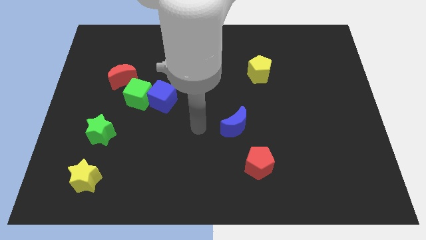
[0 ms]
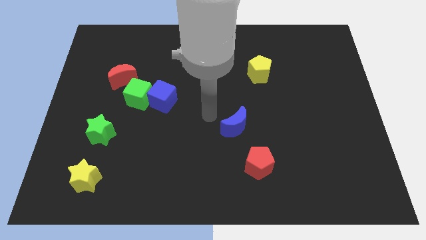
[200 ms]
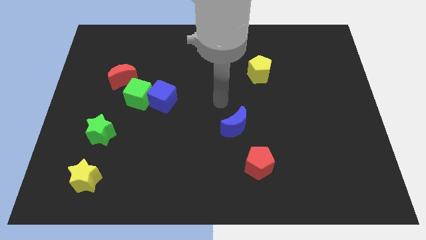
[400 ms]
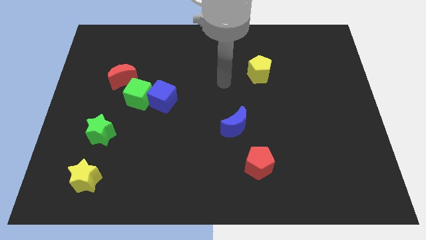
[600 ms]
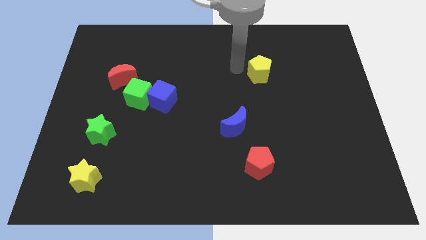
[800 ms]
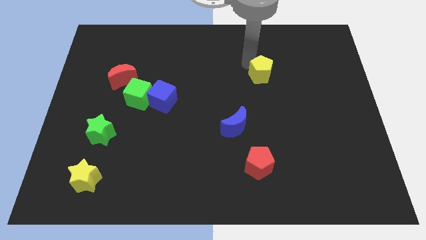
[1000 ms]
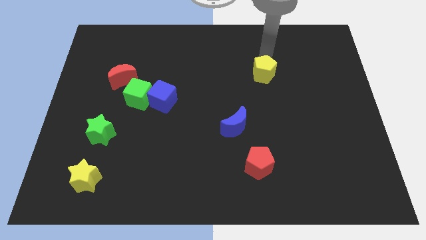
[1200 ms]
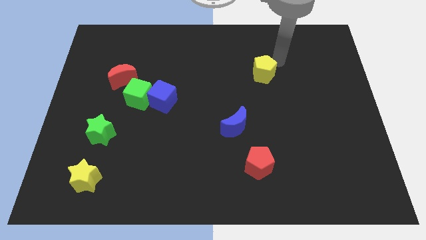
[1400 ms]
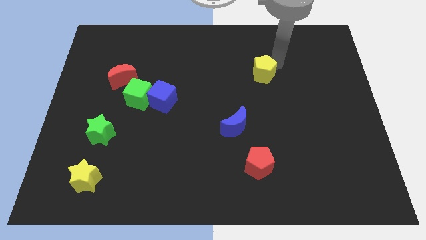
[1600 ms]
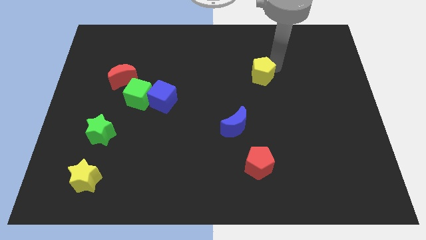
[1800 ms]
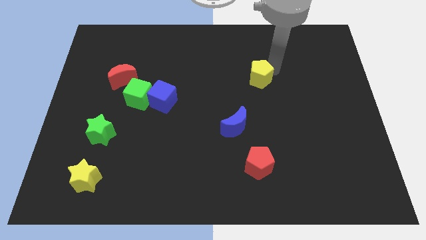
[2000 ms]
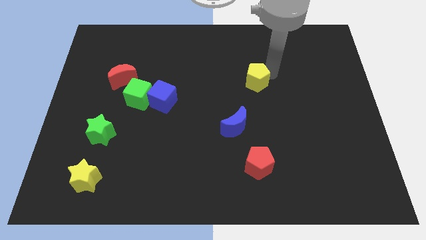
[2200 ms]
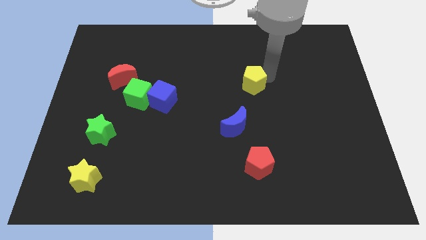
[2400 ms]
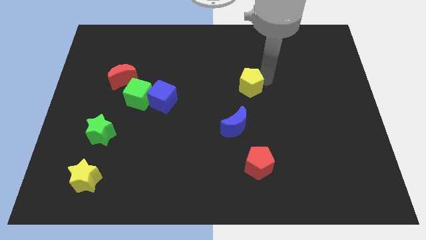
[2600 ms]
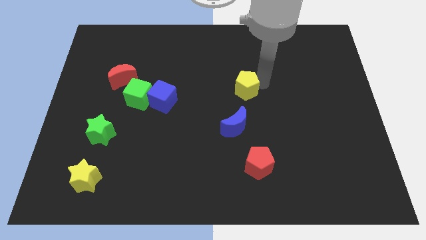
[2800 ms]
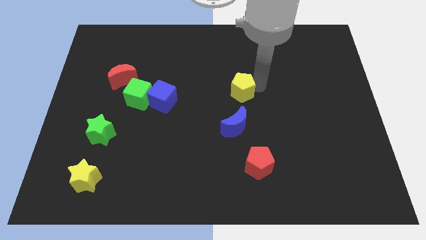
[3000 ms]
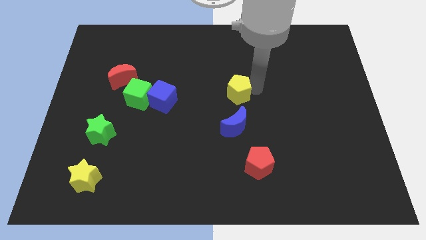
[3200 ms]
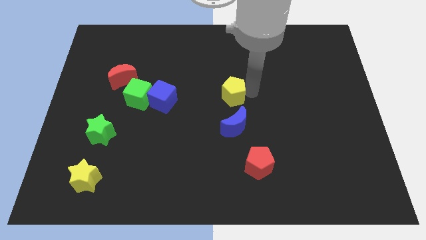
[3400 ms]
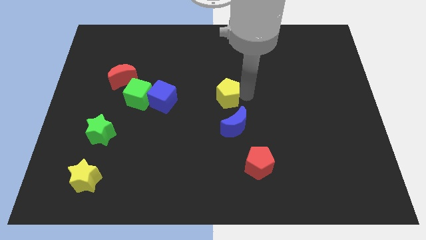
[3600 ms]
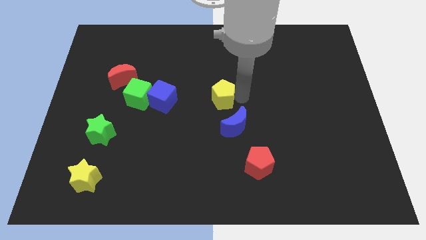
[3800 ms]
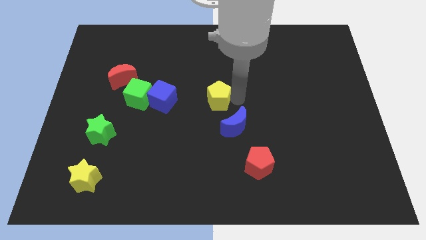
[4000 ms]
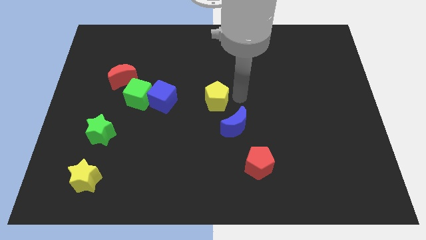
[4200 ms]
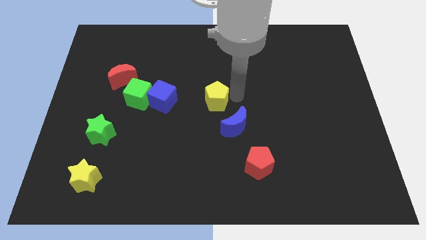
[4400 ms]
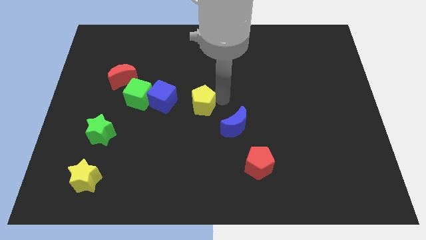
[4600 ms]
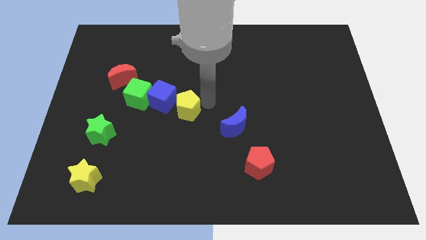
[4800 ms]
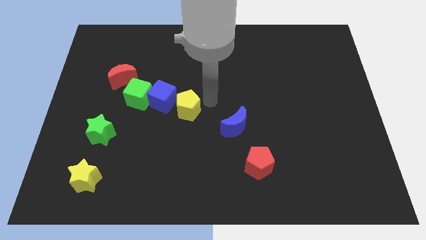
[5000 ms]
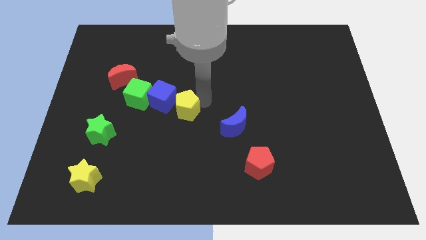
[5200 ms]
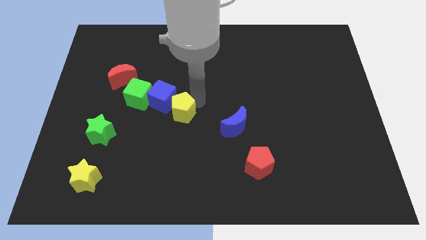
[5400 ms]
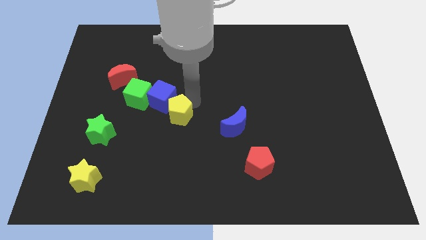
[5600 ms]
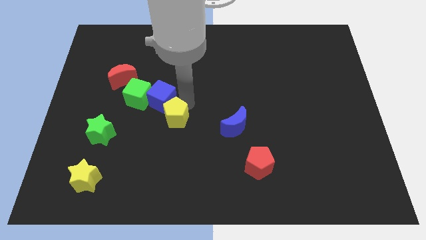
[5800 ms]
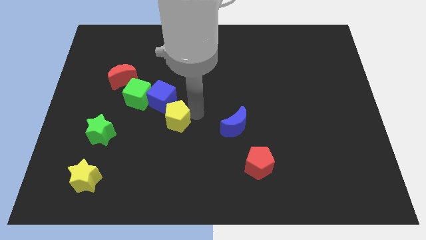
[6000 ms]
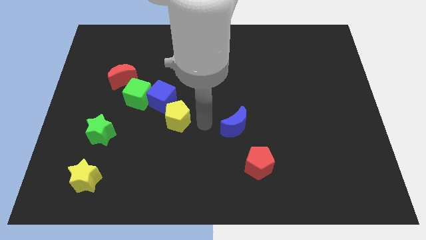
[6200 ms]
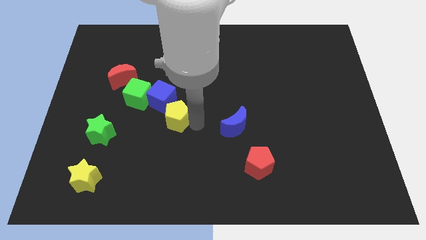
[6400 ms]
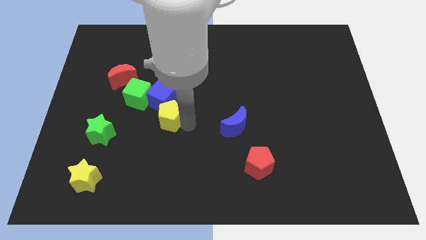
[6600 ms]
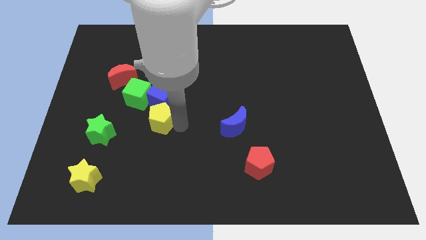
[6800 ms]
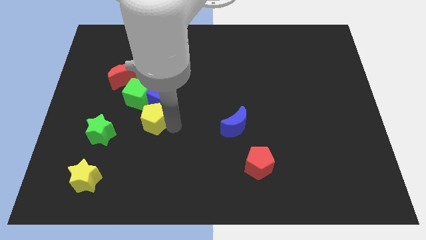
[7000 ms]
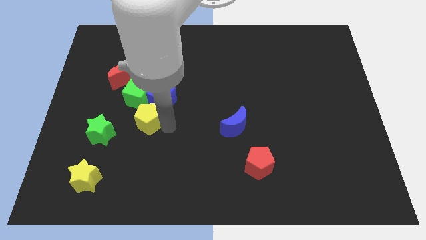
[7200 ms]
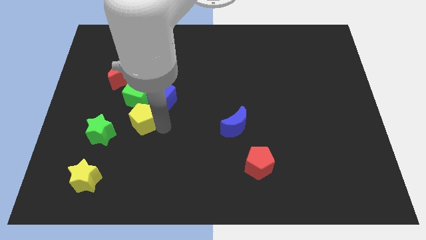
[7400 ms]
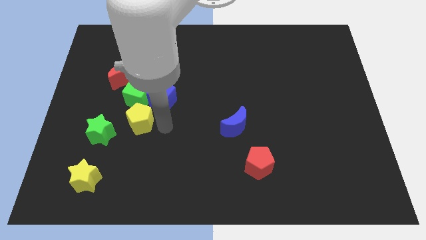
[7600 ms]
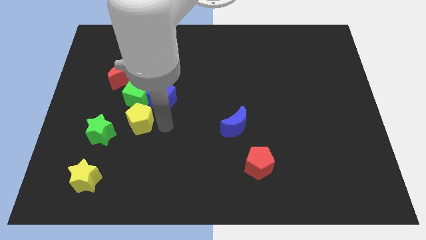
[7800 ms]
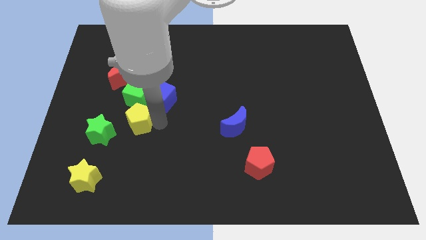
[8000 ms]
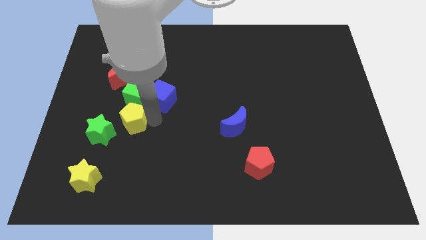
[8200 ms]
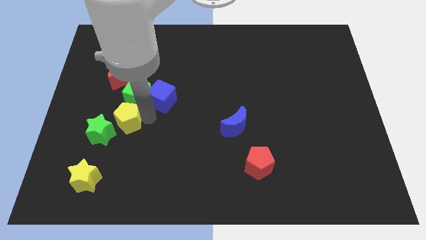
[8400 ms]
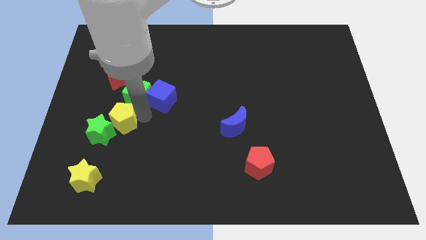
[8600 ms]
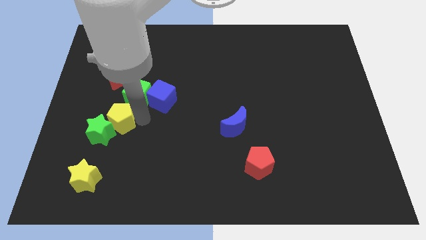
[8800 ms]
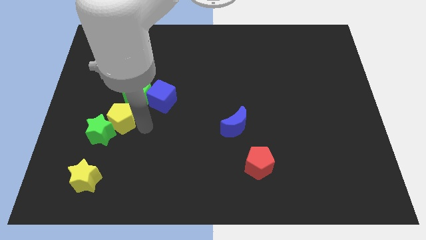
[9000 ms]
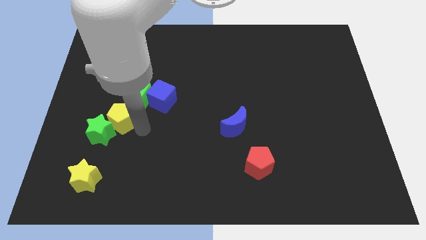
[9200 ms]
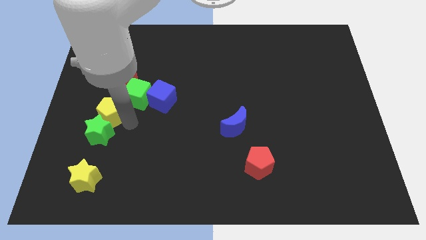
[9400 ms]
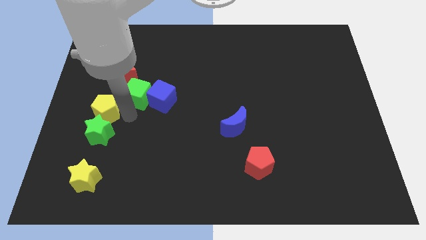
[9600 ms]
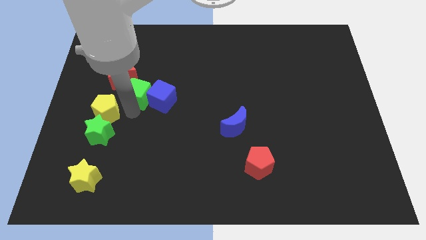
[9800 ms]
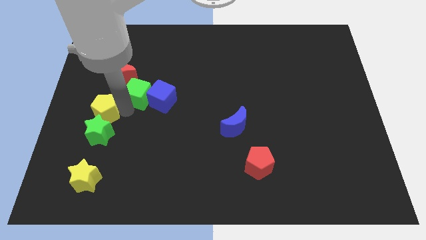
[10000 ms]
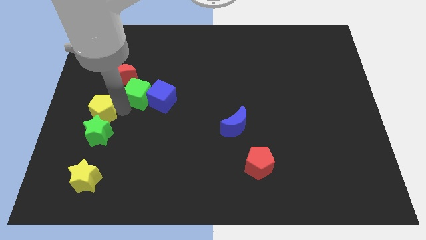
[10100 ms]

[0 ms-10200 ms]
slide the yellow pentagon to the left side

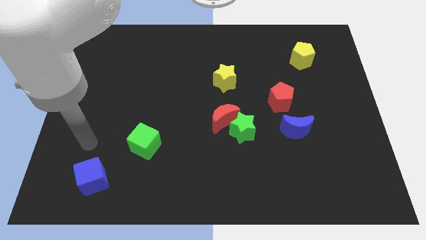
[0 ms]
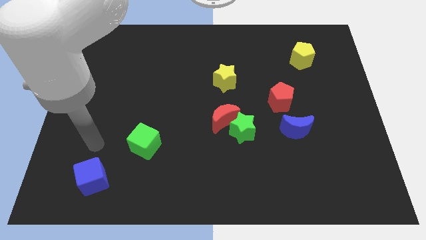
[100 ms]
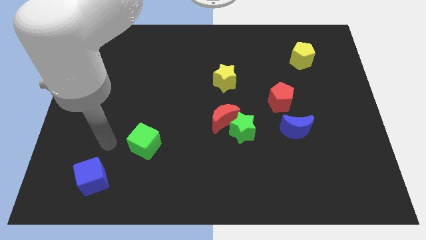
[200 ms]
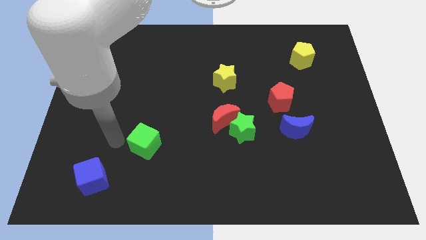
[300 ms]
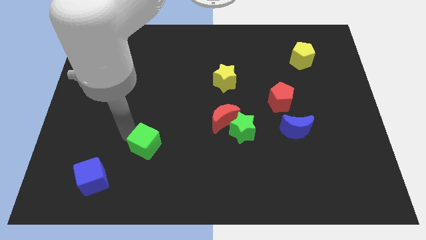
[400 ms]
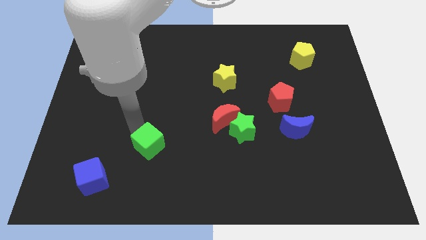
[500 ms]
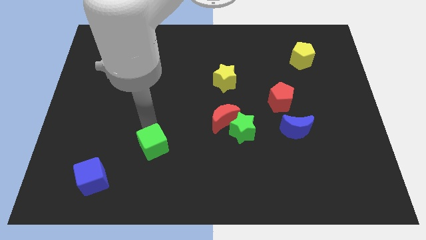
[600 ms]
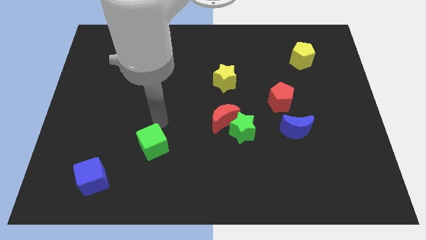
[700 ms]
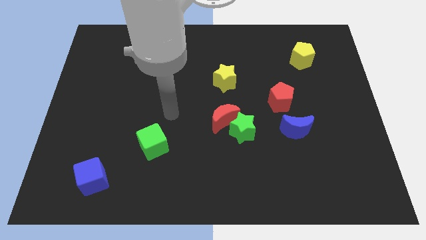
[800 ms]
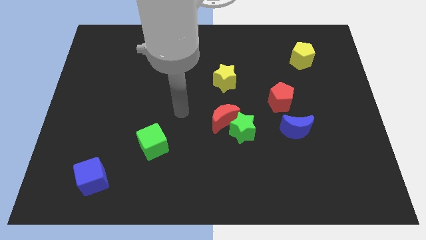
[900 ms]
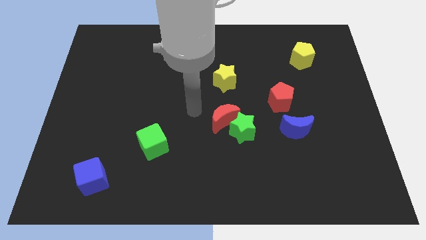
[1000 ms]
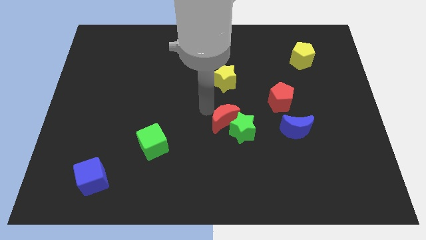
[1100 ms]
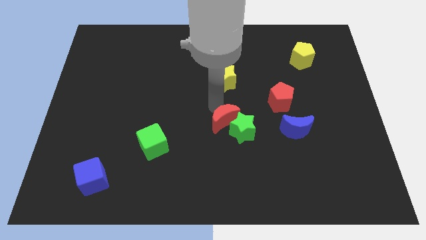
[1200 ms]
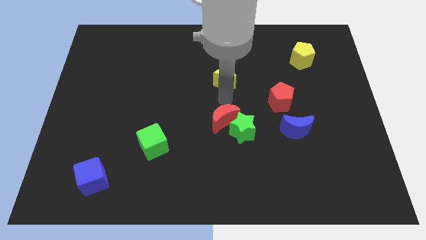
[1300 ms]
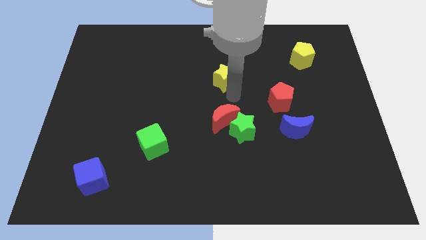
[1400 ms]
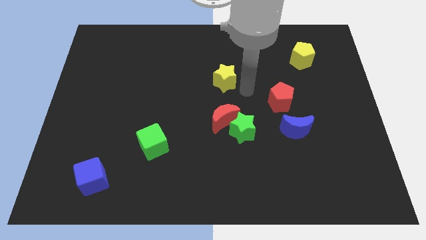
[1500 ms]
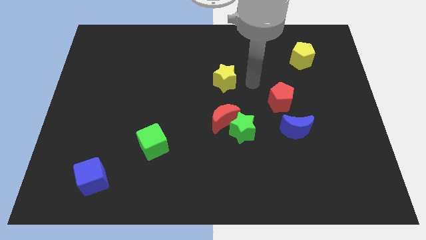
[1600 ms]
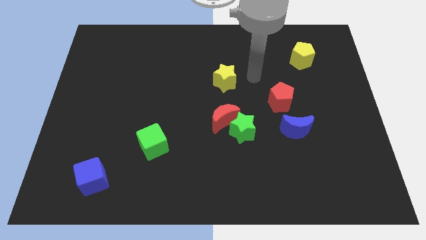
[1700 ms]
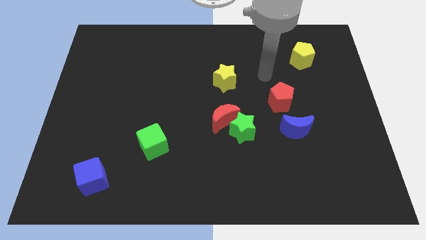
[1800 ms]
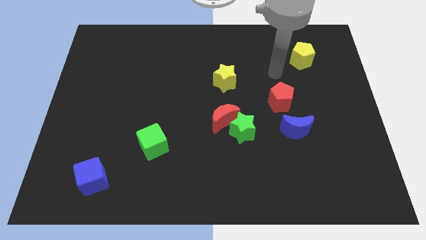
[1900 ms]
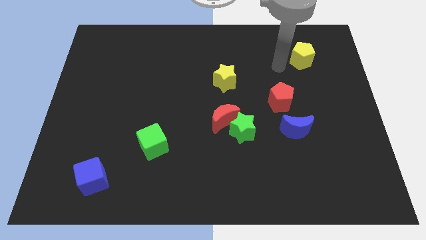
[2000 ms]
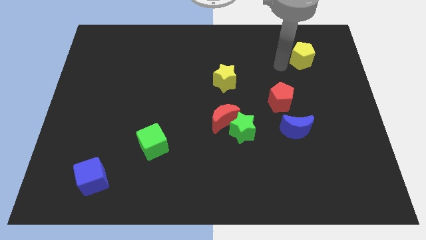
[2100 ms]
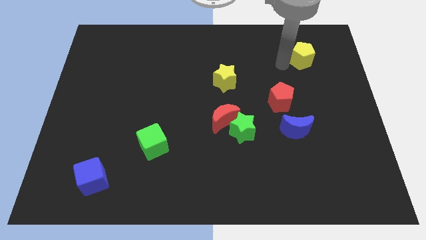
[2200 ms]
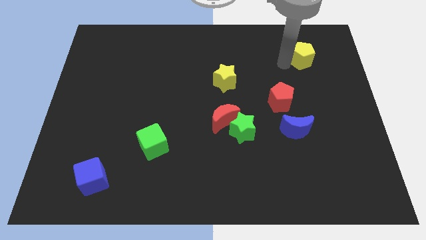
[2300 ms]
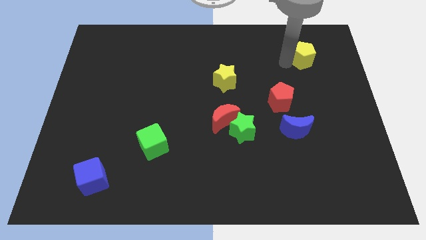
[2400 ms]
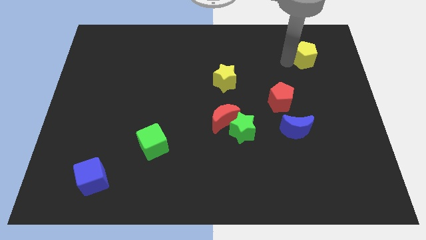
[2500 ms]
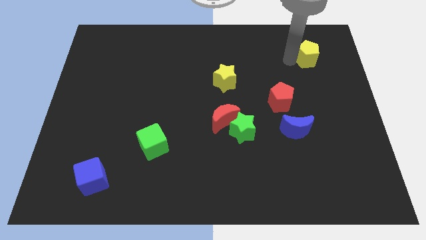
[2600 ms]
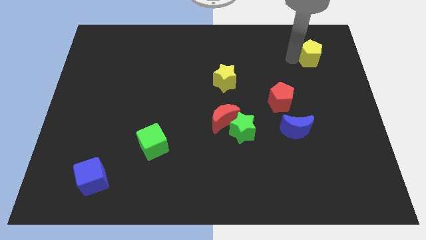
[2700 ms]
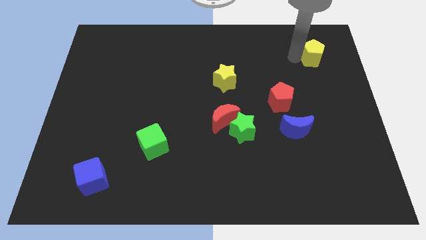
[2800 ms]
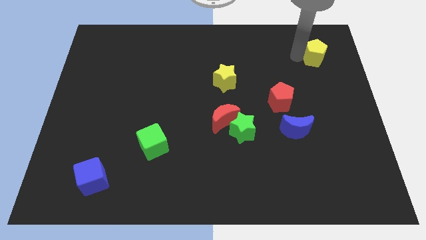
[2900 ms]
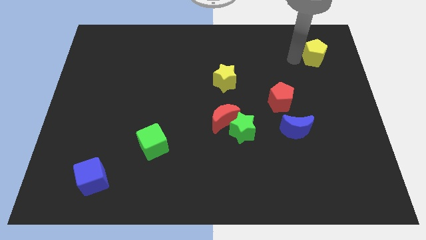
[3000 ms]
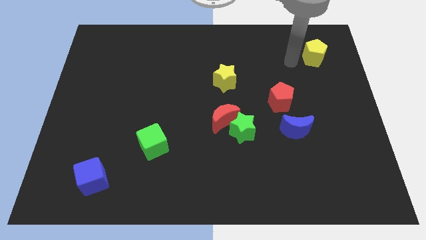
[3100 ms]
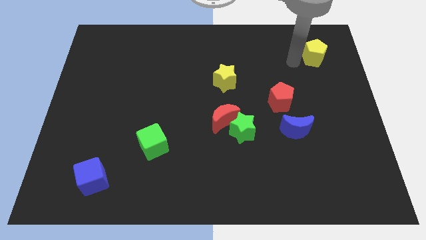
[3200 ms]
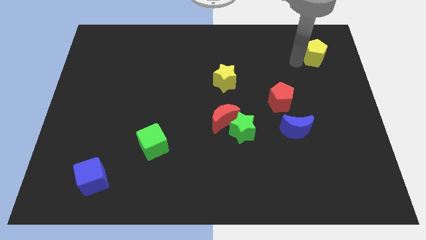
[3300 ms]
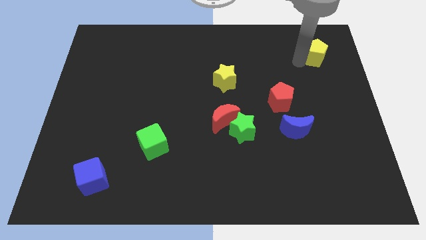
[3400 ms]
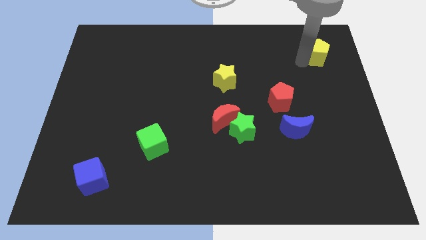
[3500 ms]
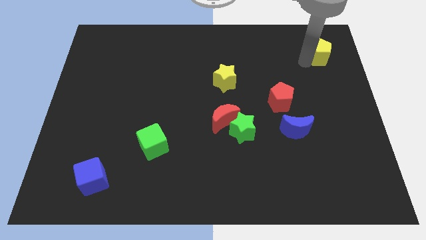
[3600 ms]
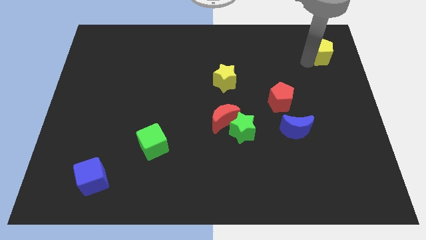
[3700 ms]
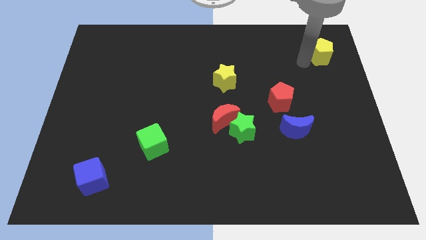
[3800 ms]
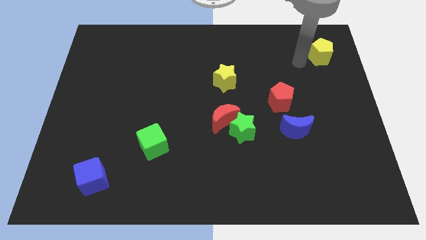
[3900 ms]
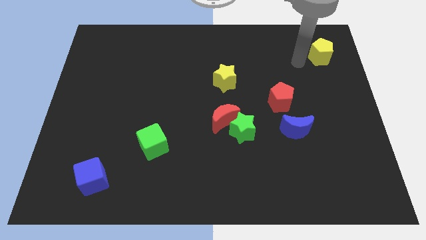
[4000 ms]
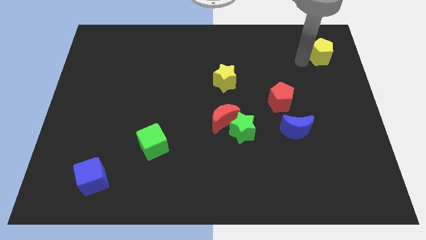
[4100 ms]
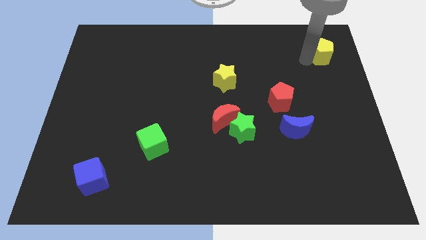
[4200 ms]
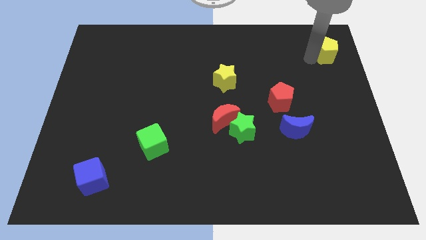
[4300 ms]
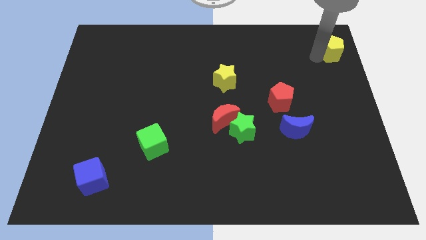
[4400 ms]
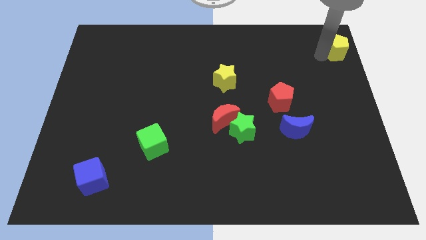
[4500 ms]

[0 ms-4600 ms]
push the yellow pentagon to the top right corner
